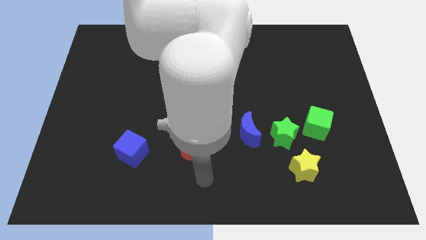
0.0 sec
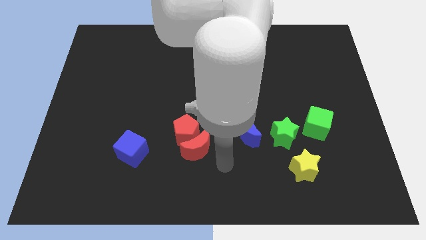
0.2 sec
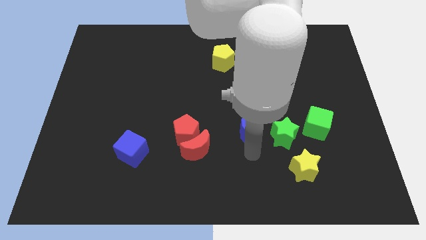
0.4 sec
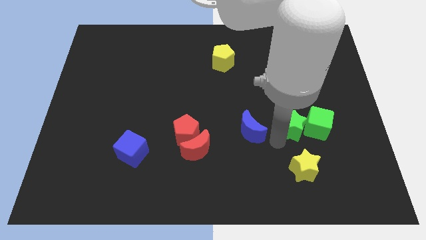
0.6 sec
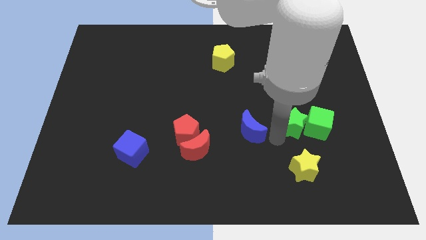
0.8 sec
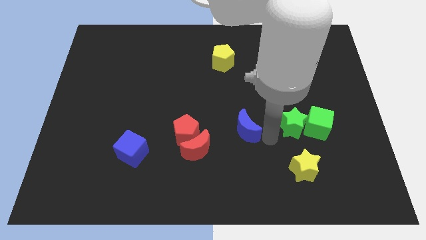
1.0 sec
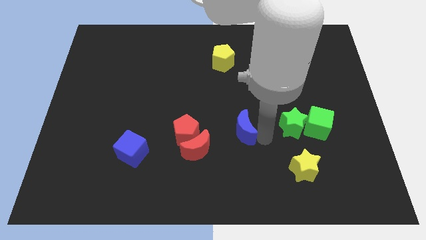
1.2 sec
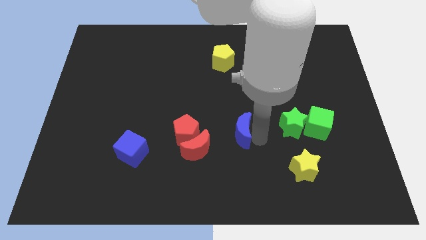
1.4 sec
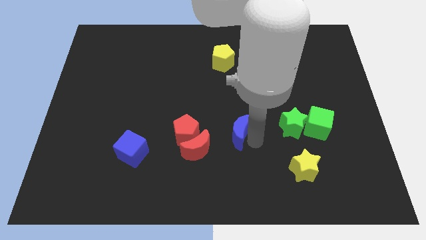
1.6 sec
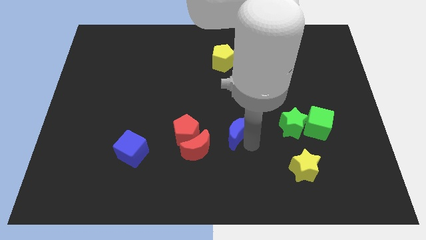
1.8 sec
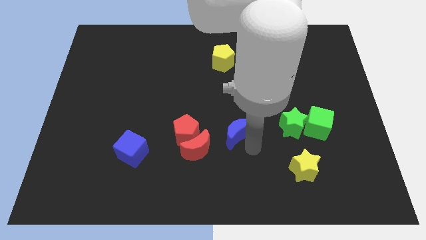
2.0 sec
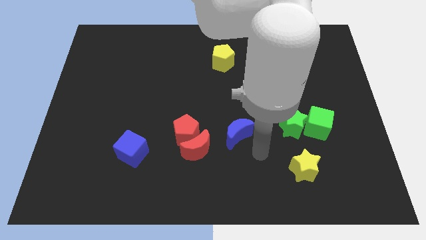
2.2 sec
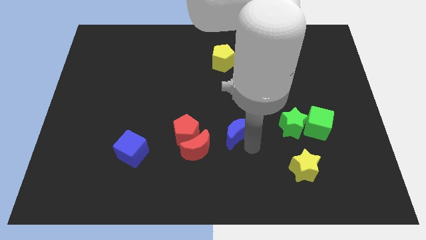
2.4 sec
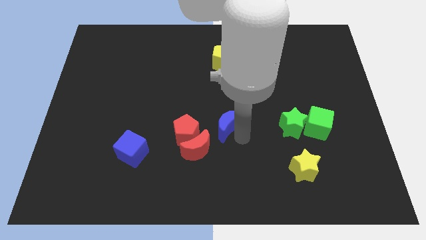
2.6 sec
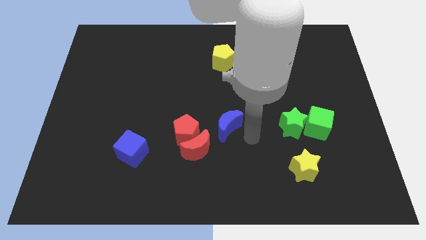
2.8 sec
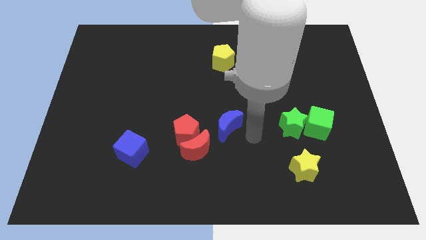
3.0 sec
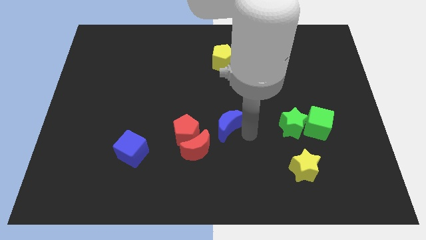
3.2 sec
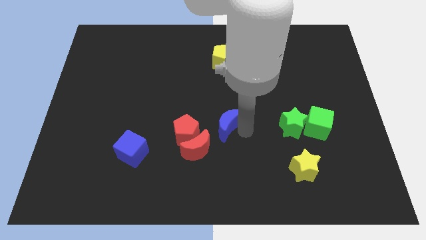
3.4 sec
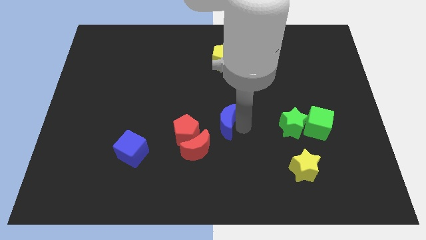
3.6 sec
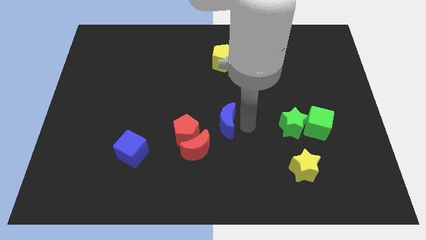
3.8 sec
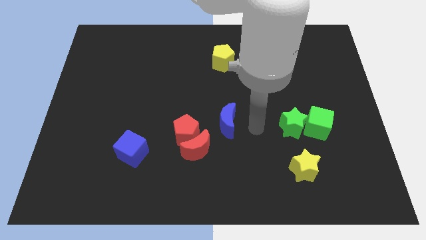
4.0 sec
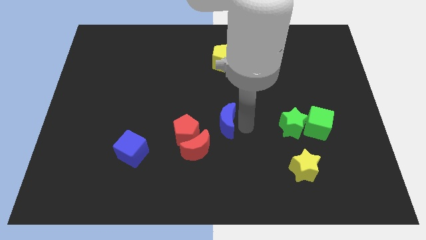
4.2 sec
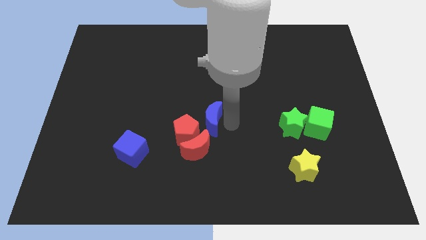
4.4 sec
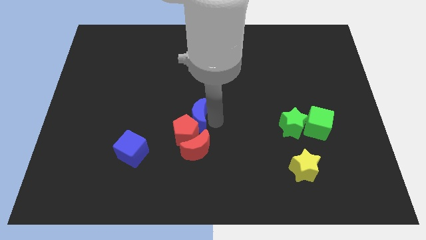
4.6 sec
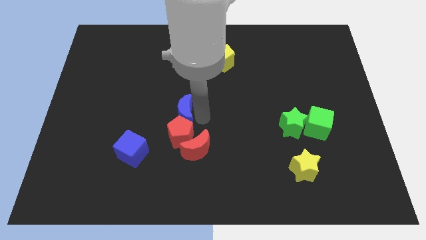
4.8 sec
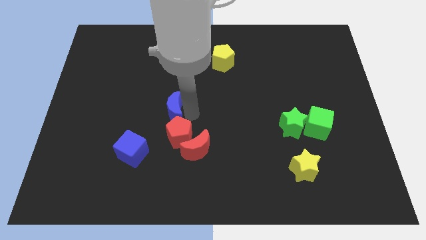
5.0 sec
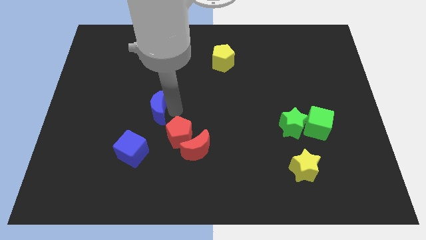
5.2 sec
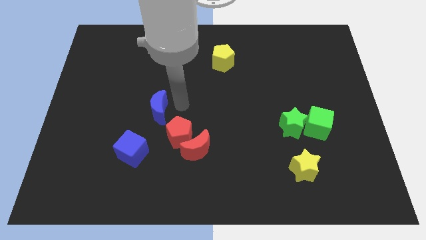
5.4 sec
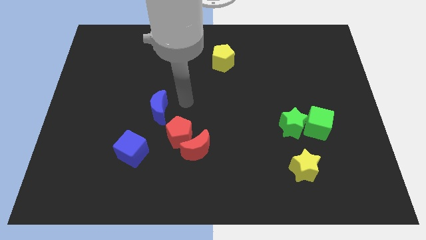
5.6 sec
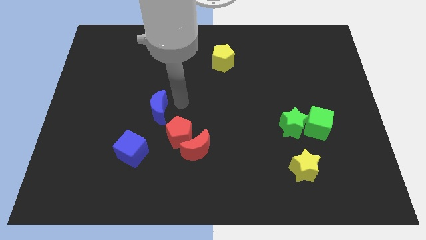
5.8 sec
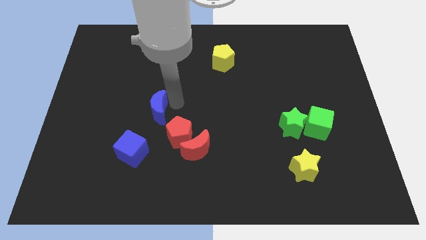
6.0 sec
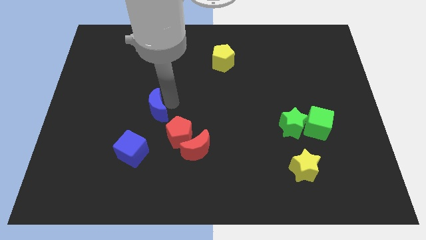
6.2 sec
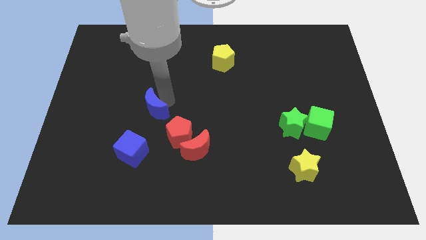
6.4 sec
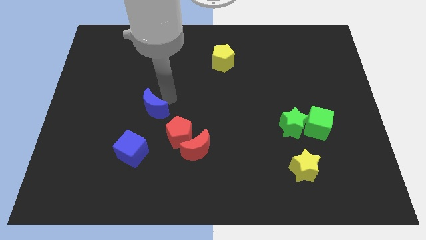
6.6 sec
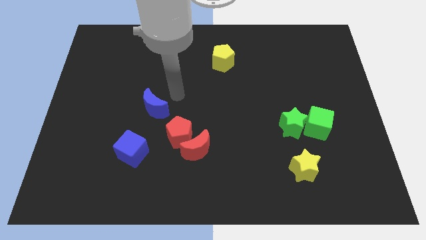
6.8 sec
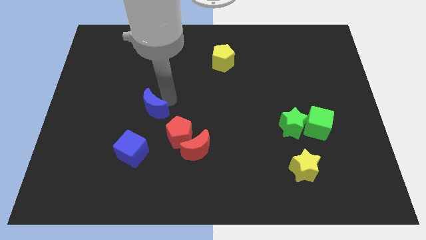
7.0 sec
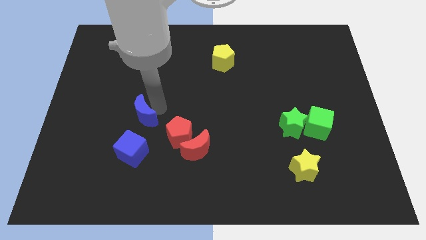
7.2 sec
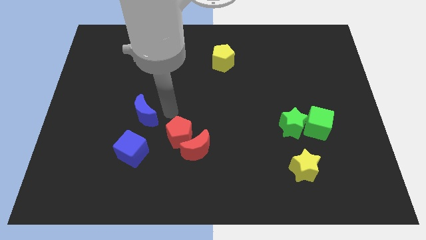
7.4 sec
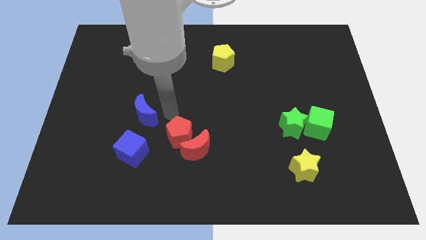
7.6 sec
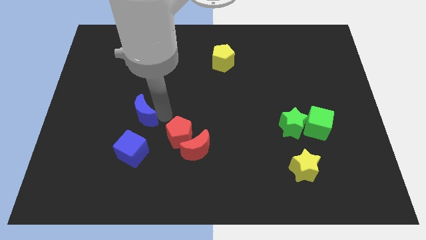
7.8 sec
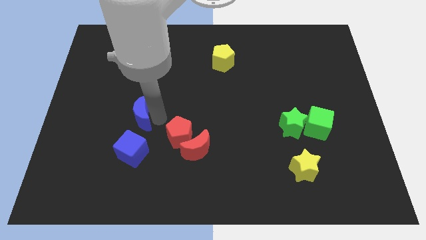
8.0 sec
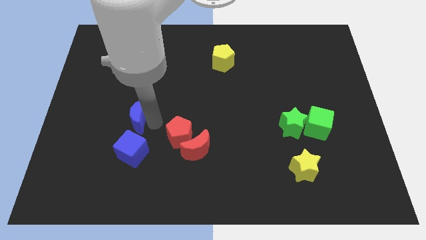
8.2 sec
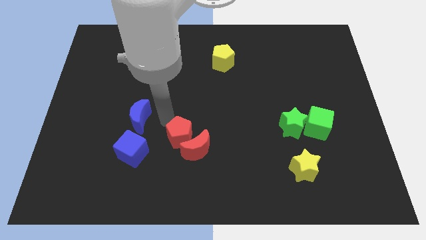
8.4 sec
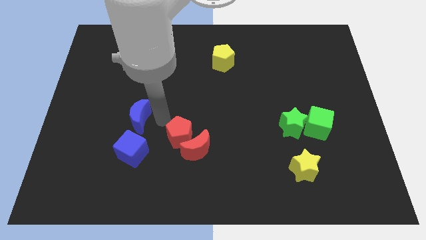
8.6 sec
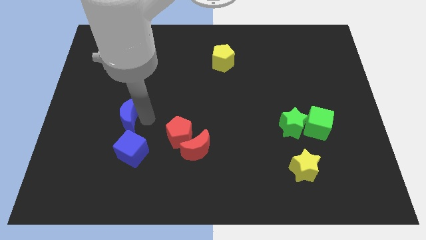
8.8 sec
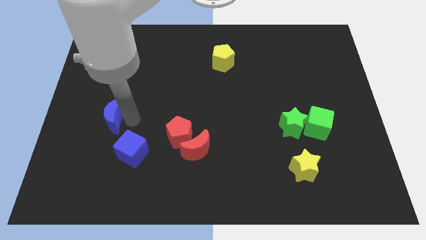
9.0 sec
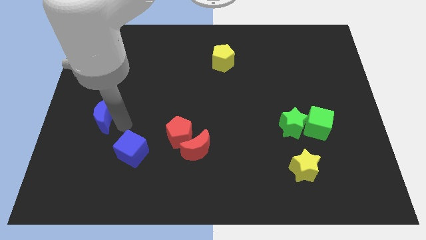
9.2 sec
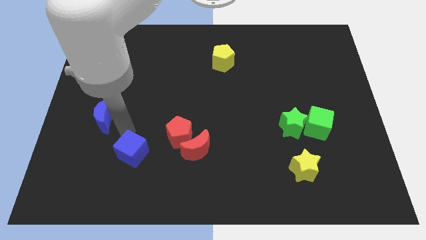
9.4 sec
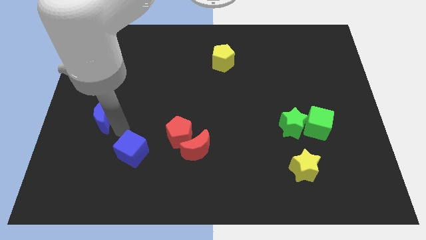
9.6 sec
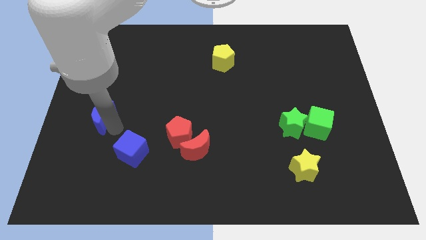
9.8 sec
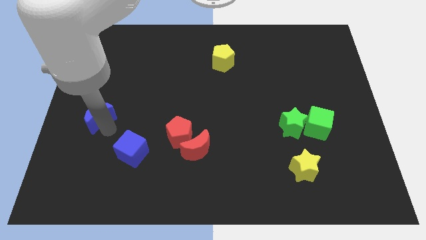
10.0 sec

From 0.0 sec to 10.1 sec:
move the blue moon to the left side of the board

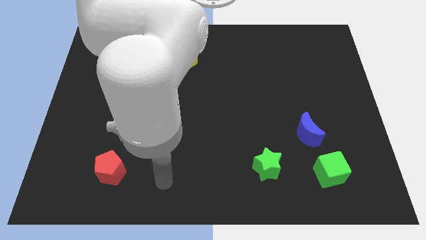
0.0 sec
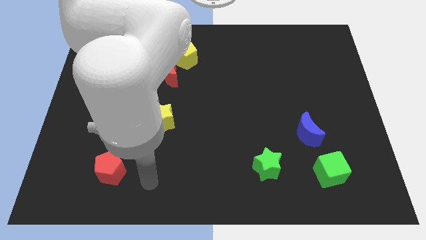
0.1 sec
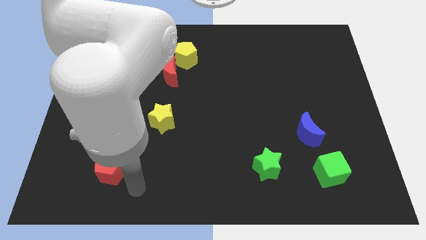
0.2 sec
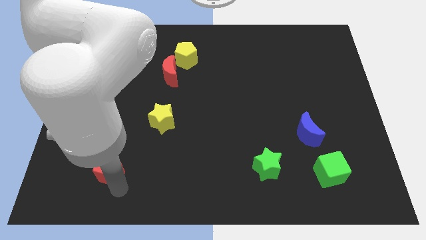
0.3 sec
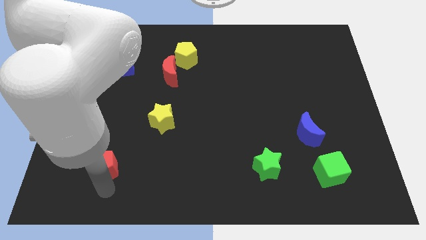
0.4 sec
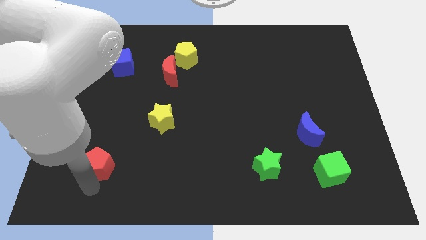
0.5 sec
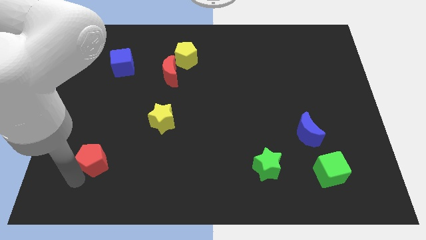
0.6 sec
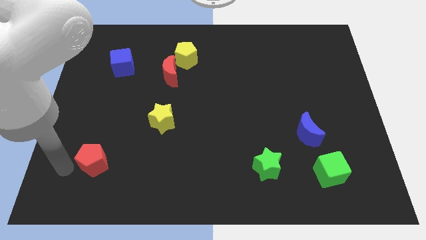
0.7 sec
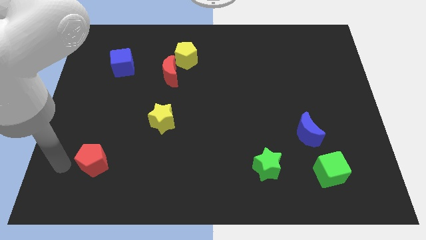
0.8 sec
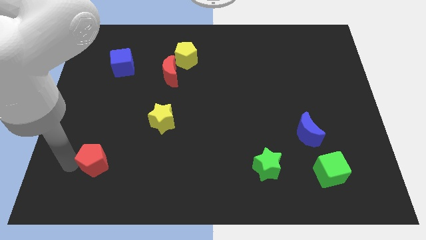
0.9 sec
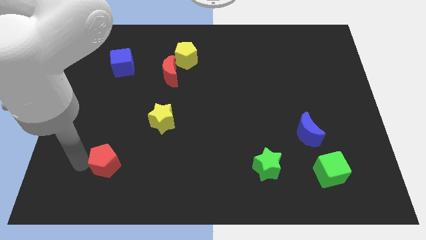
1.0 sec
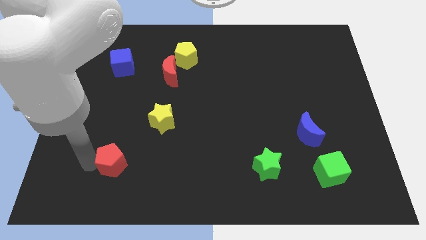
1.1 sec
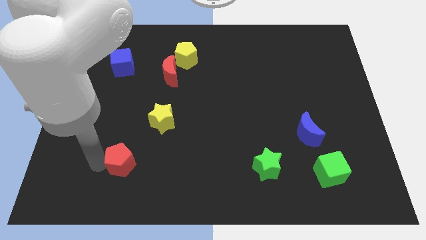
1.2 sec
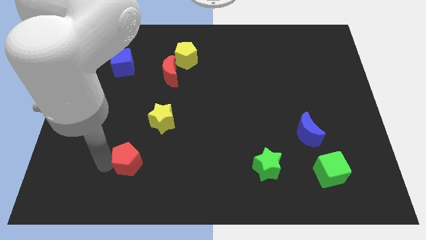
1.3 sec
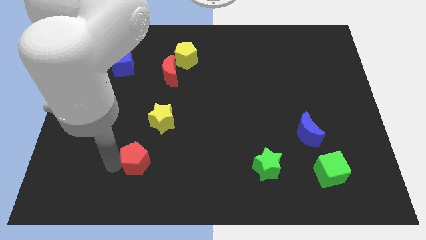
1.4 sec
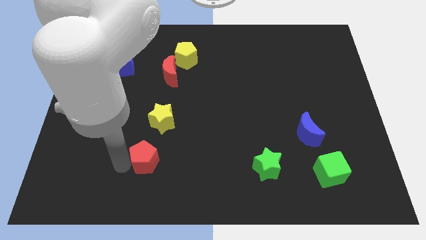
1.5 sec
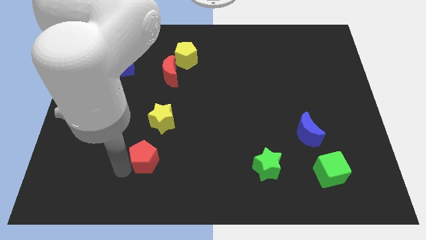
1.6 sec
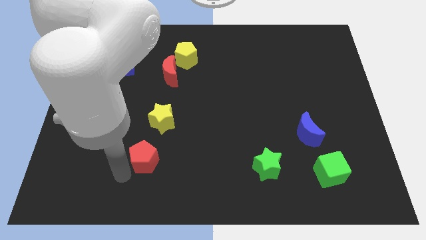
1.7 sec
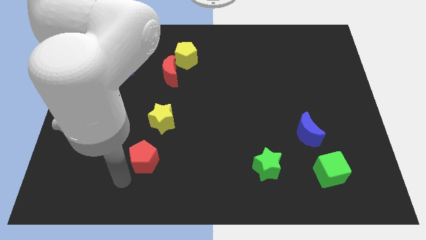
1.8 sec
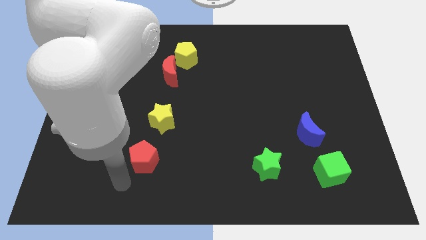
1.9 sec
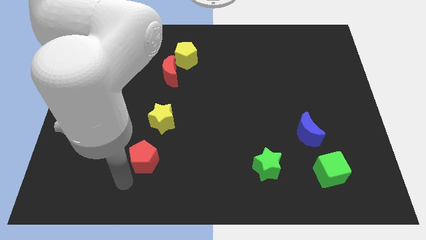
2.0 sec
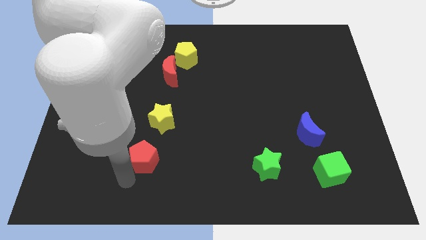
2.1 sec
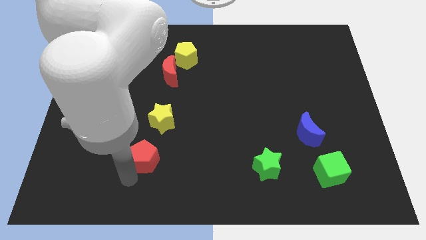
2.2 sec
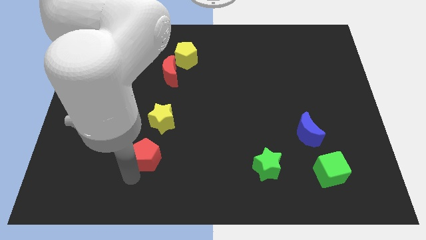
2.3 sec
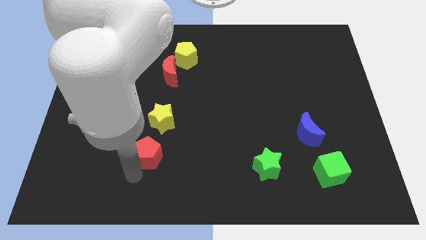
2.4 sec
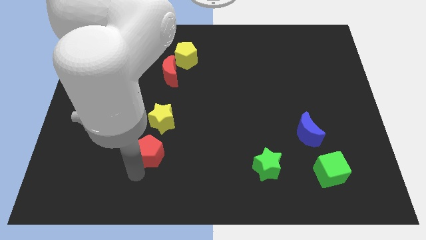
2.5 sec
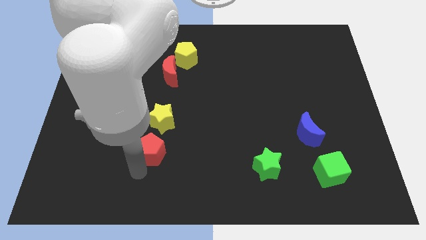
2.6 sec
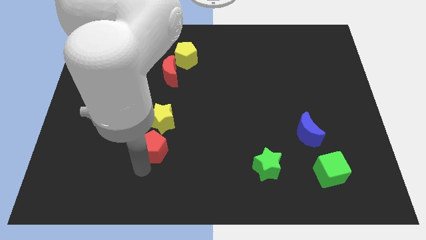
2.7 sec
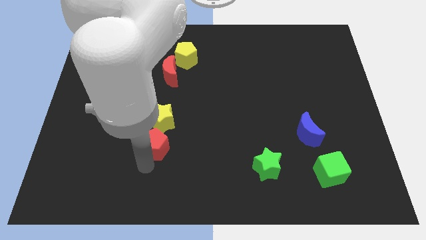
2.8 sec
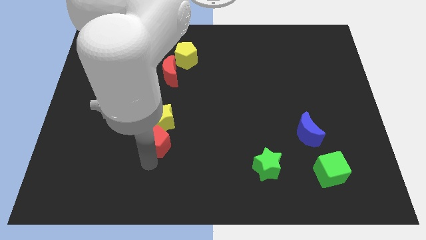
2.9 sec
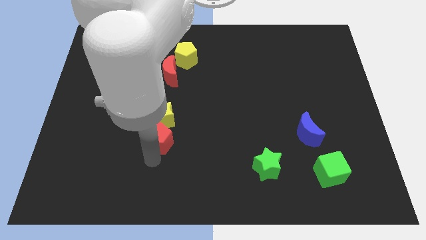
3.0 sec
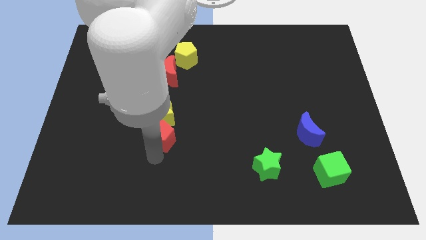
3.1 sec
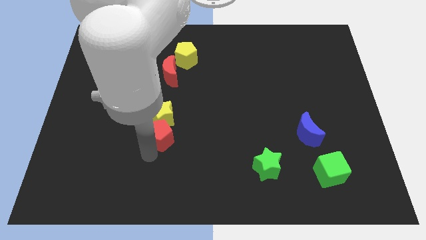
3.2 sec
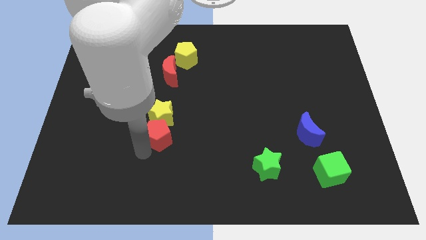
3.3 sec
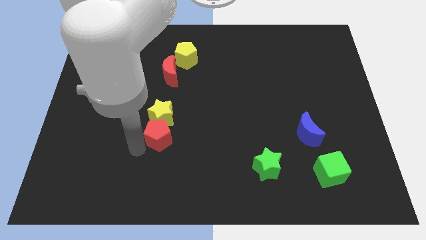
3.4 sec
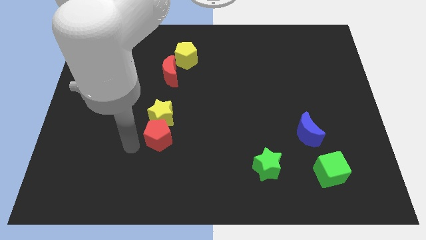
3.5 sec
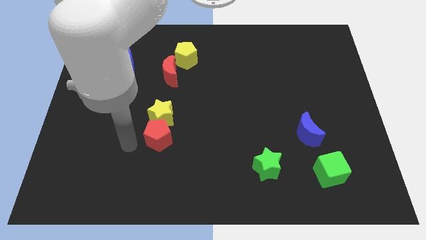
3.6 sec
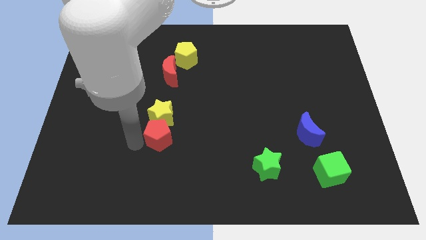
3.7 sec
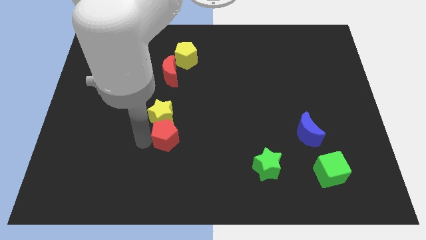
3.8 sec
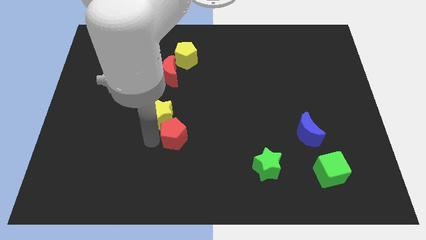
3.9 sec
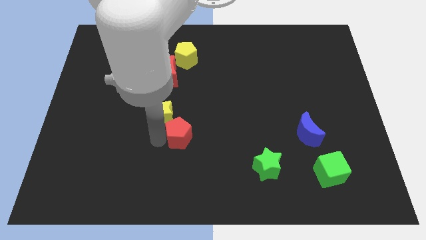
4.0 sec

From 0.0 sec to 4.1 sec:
slide the red pentagon to the middle
